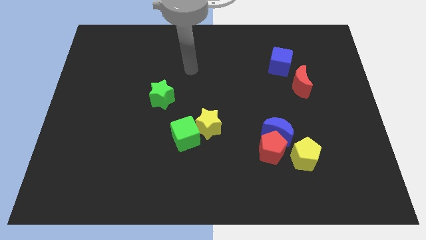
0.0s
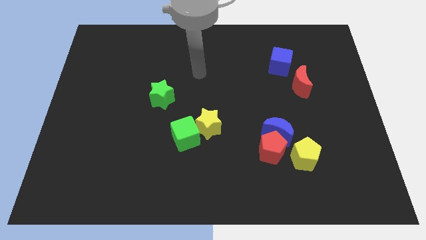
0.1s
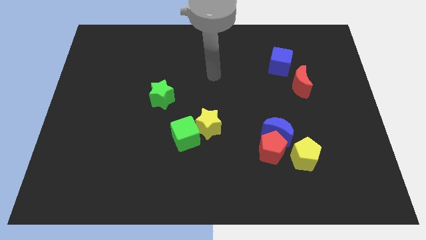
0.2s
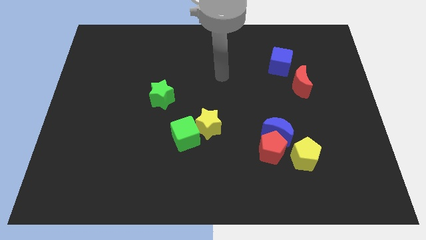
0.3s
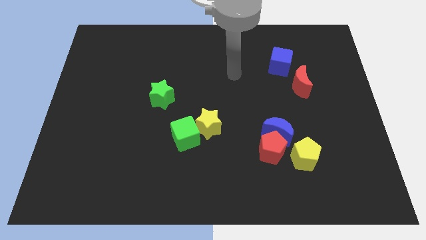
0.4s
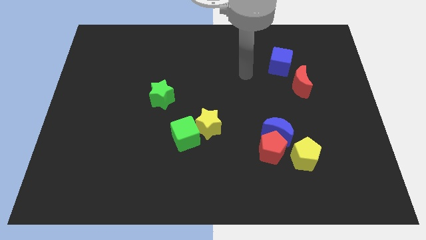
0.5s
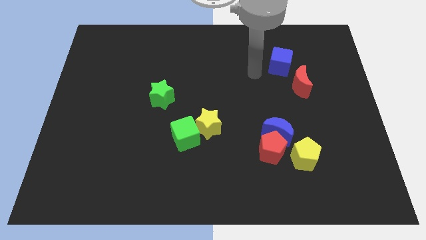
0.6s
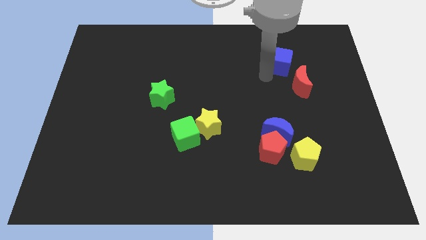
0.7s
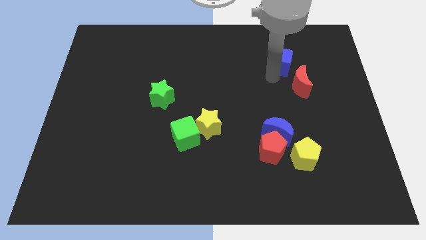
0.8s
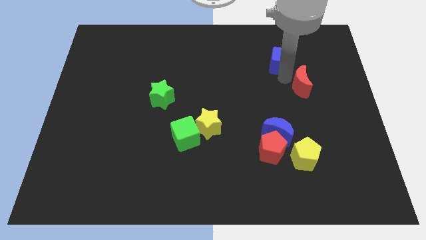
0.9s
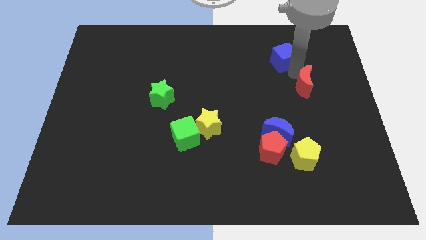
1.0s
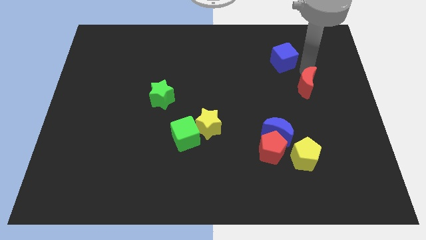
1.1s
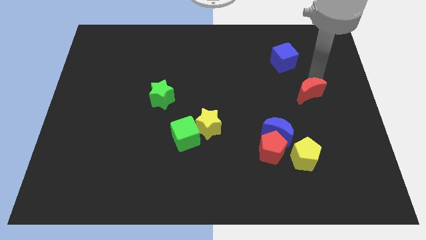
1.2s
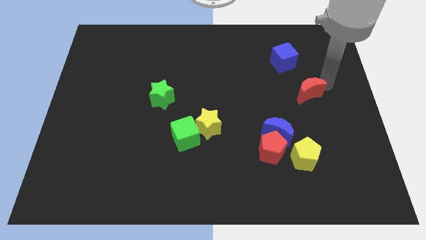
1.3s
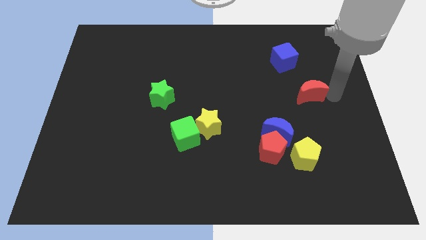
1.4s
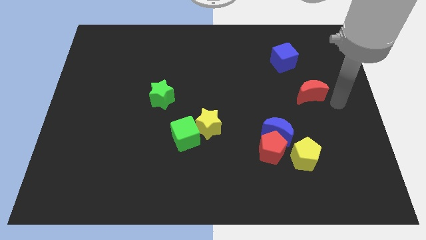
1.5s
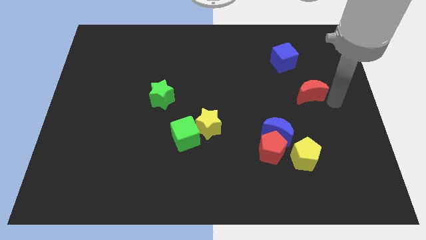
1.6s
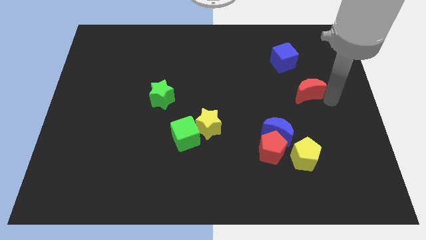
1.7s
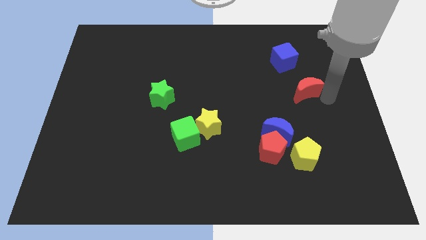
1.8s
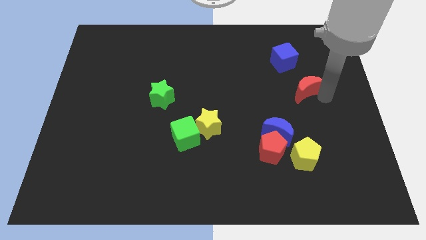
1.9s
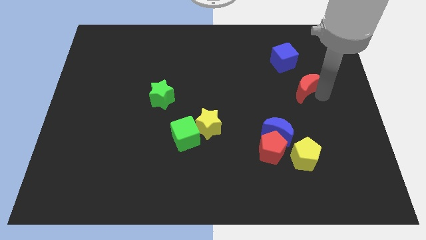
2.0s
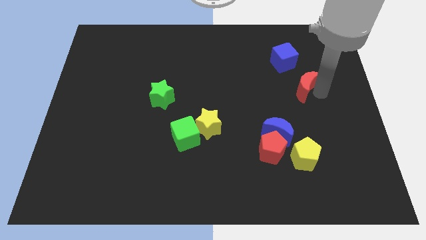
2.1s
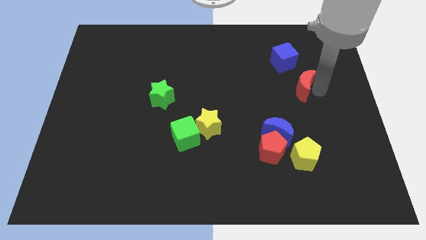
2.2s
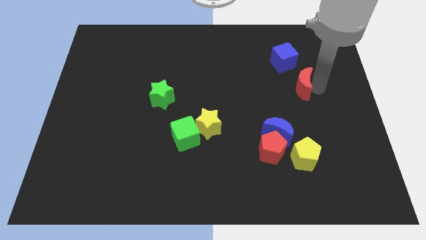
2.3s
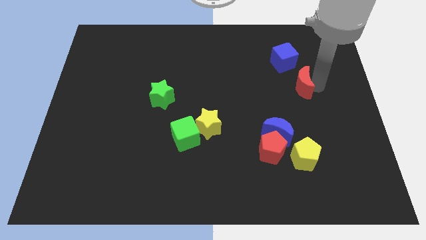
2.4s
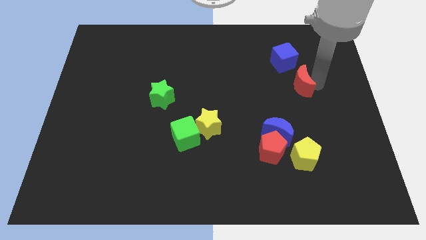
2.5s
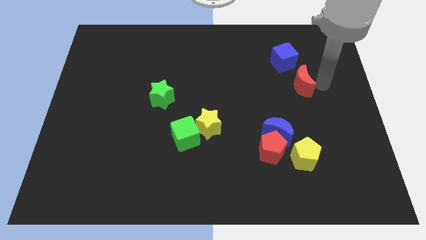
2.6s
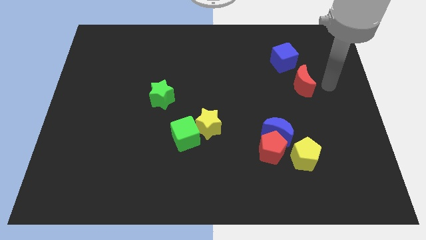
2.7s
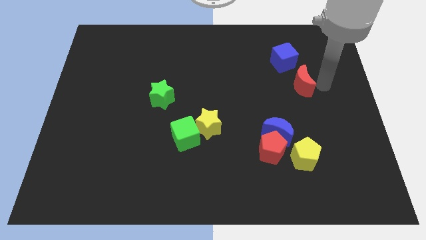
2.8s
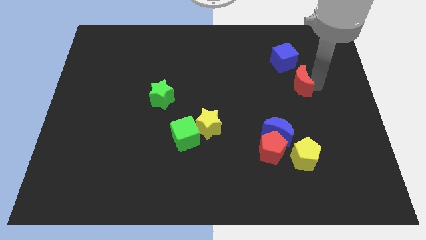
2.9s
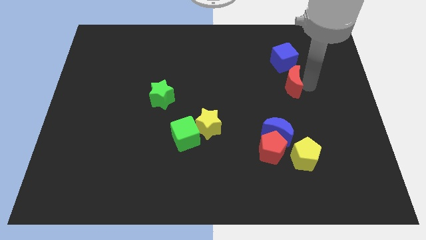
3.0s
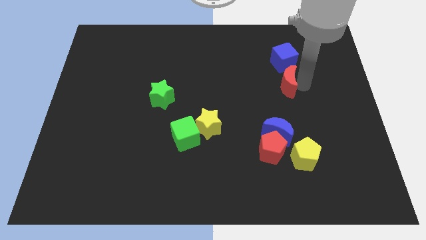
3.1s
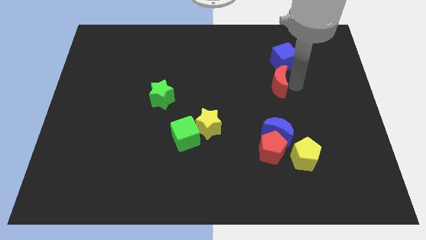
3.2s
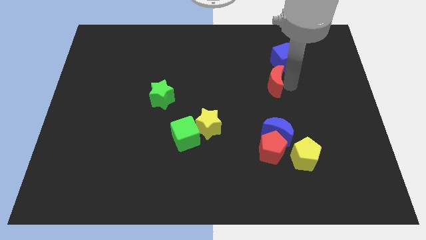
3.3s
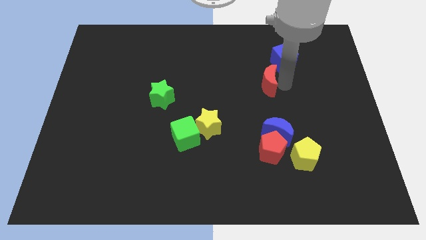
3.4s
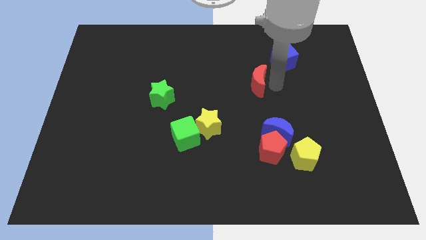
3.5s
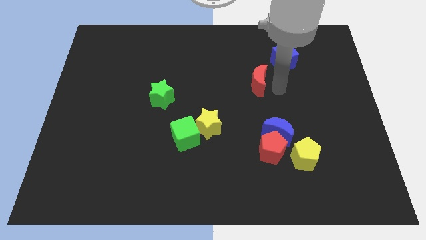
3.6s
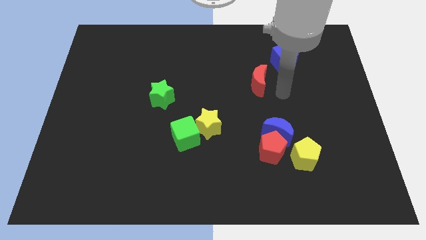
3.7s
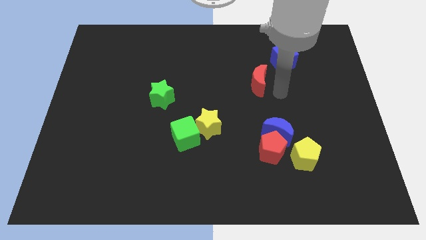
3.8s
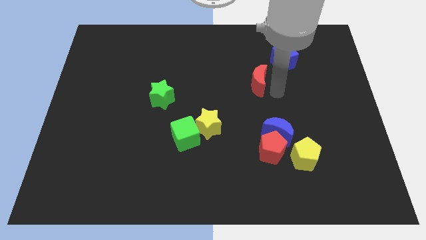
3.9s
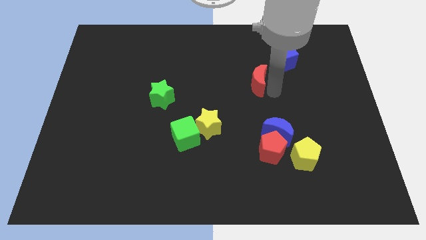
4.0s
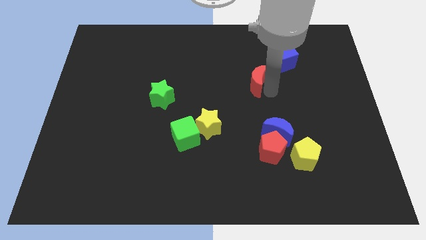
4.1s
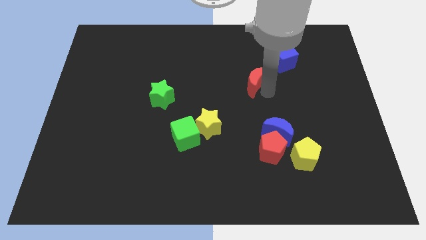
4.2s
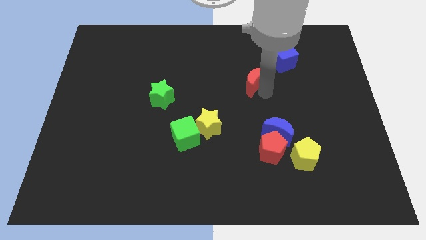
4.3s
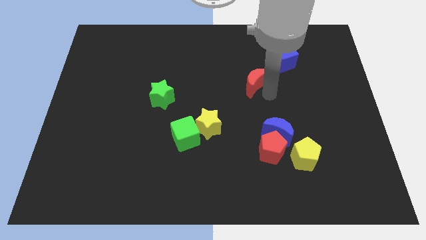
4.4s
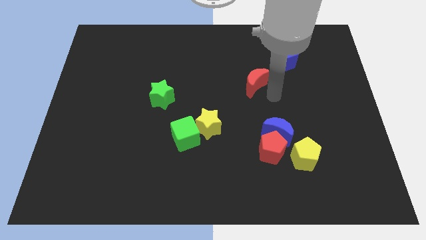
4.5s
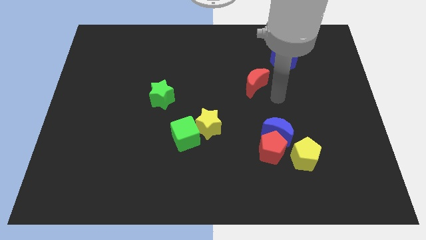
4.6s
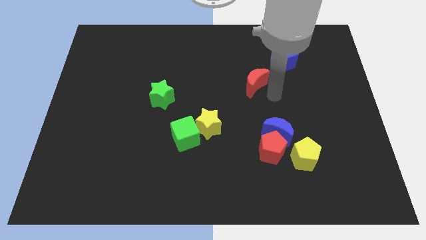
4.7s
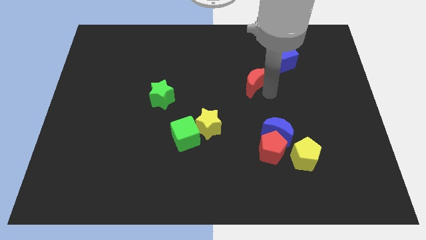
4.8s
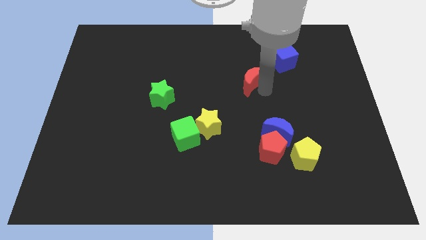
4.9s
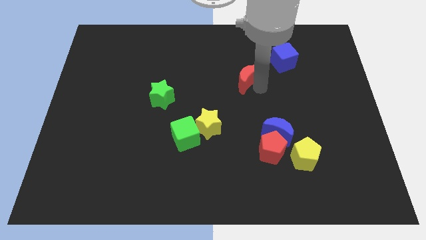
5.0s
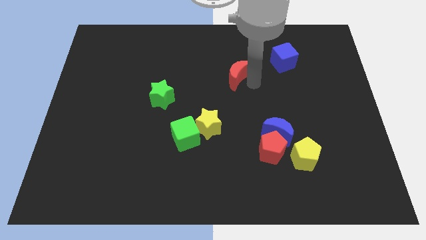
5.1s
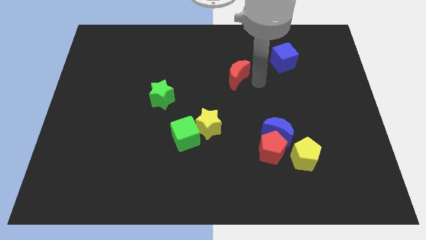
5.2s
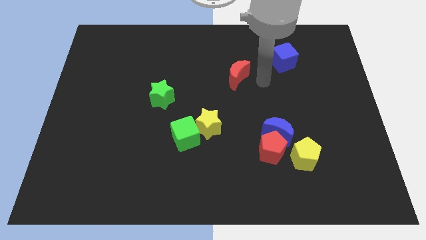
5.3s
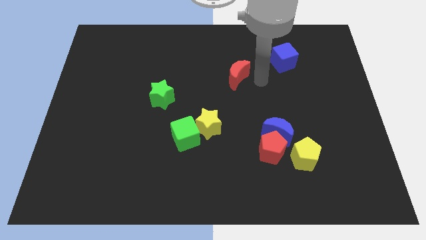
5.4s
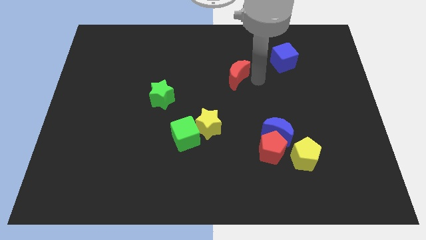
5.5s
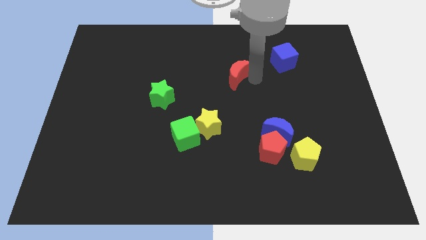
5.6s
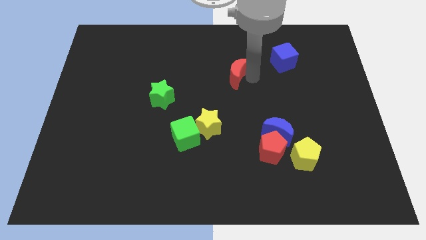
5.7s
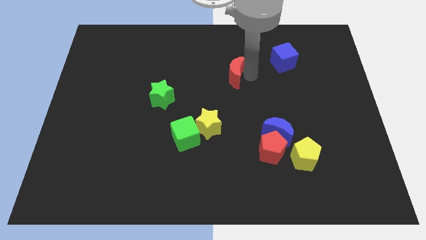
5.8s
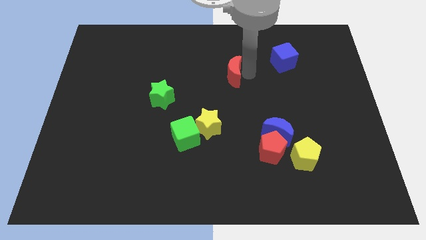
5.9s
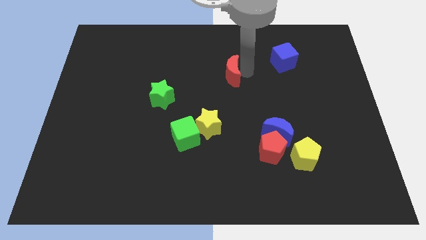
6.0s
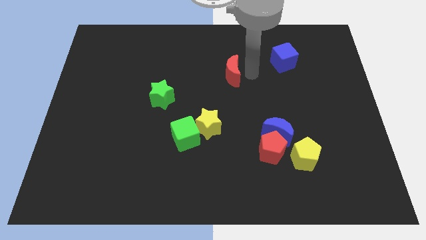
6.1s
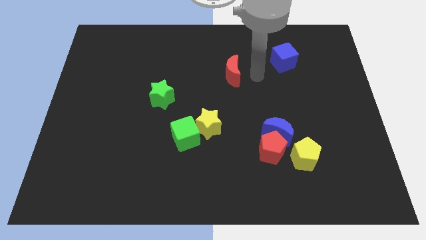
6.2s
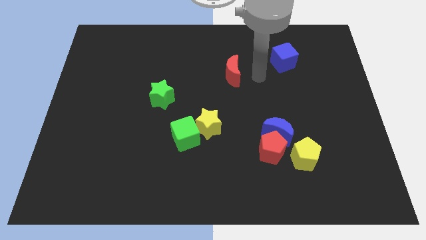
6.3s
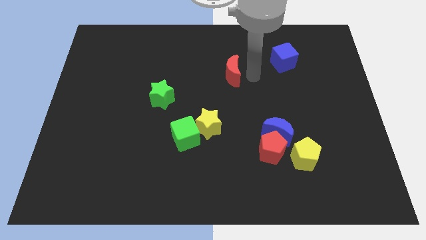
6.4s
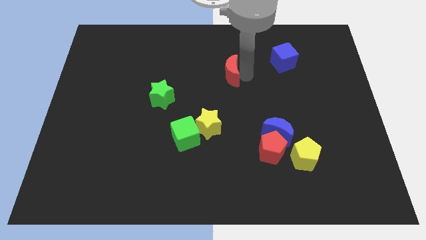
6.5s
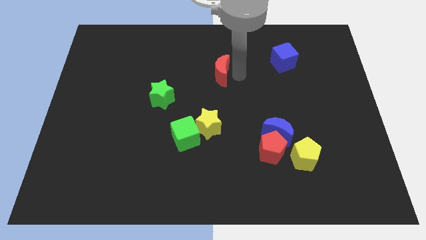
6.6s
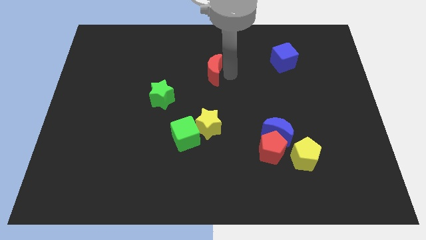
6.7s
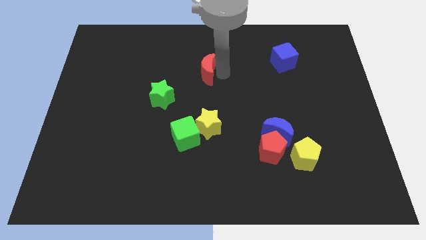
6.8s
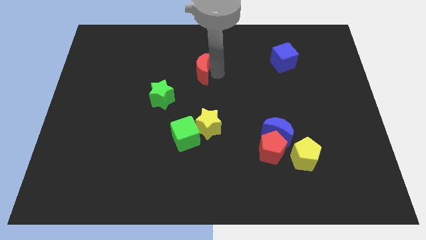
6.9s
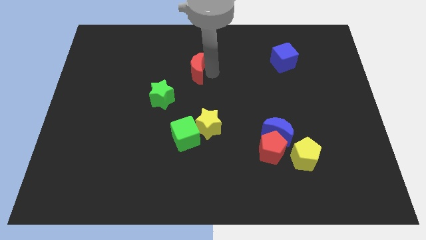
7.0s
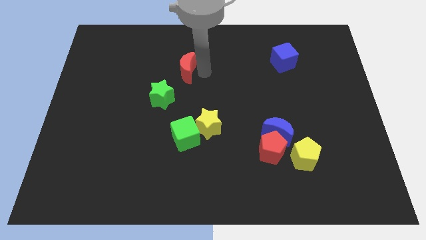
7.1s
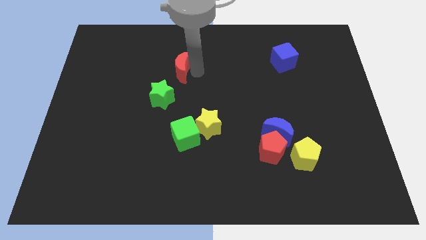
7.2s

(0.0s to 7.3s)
move the red moon above the green star

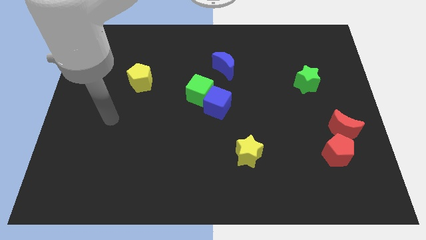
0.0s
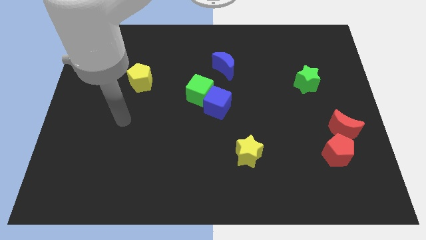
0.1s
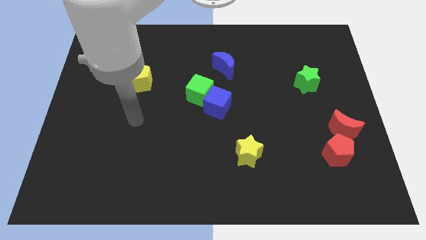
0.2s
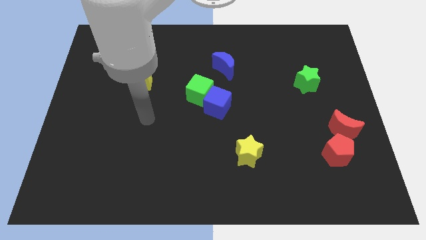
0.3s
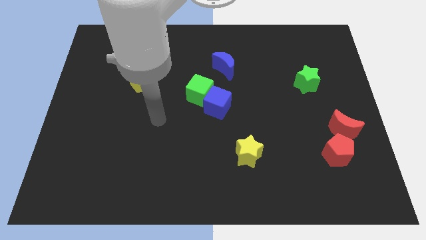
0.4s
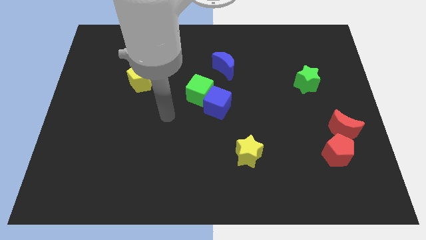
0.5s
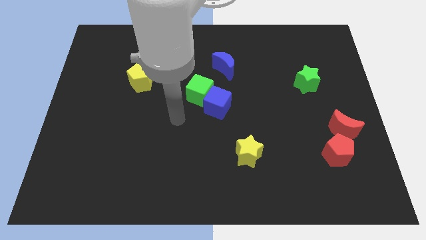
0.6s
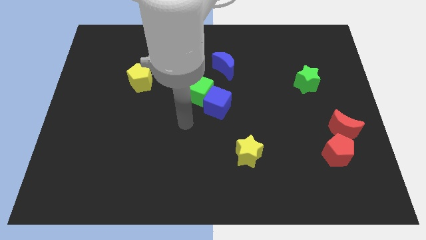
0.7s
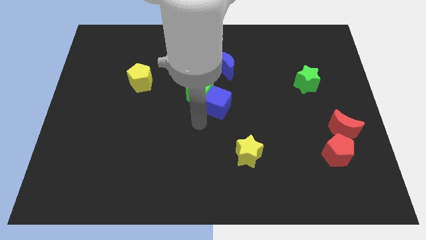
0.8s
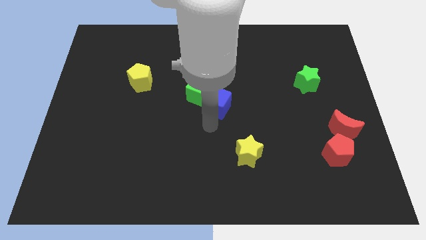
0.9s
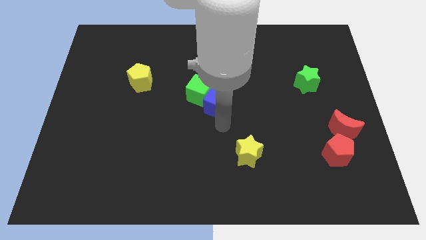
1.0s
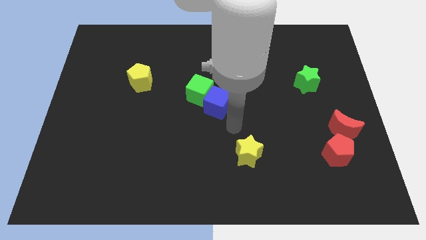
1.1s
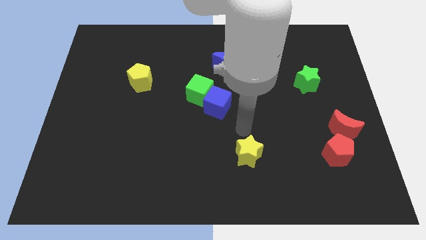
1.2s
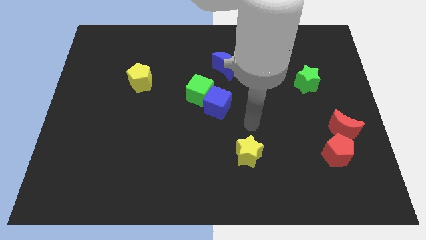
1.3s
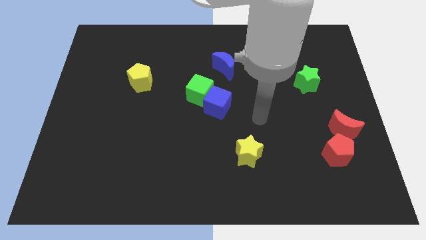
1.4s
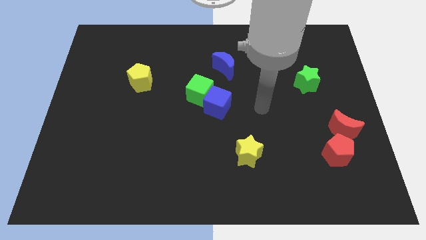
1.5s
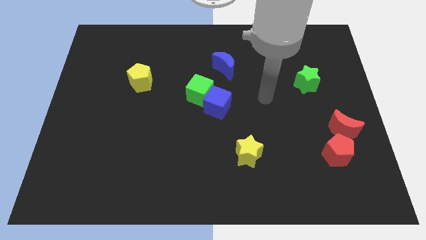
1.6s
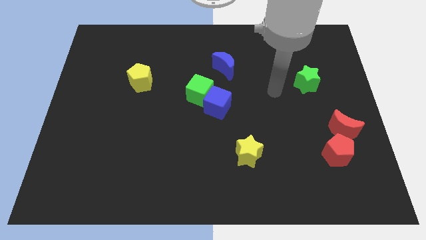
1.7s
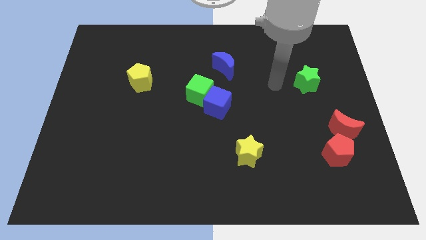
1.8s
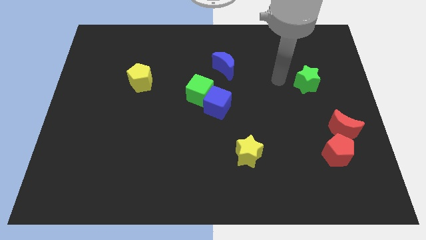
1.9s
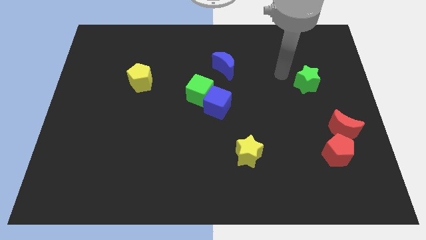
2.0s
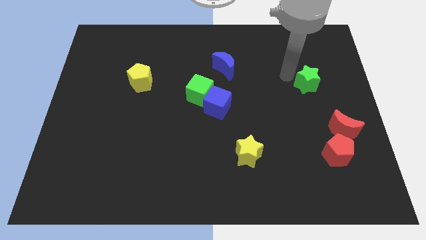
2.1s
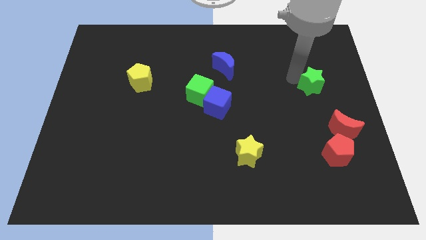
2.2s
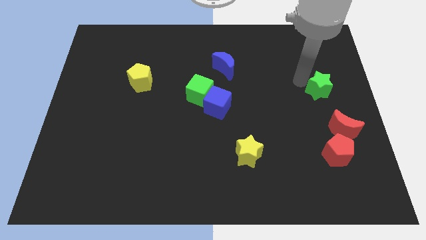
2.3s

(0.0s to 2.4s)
put the green star to the top of the red moon
